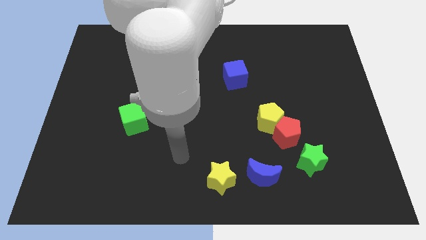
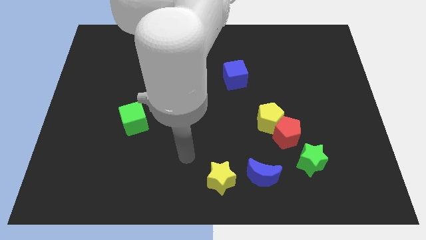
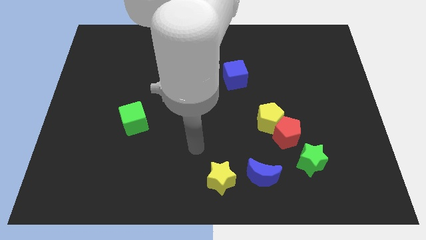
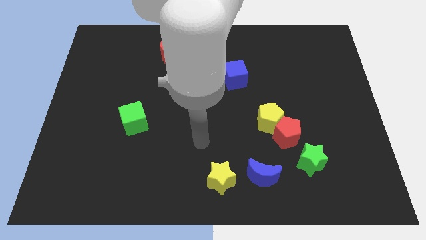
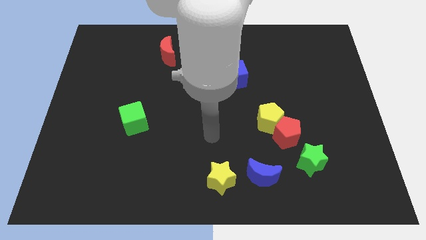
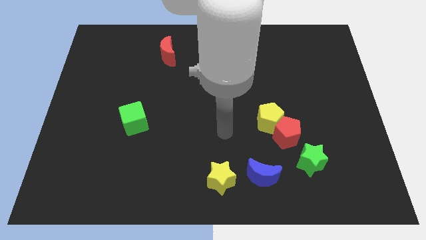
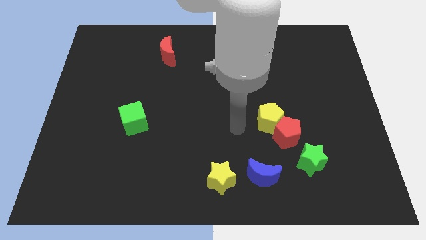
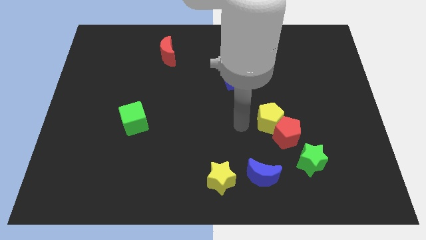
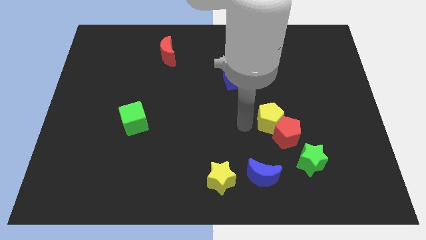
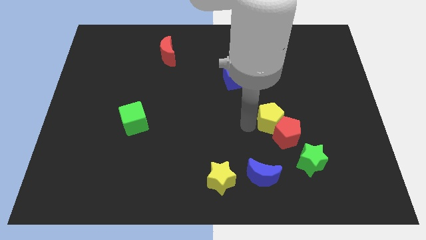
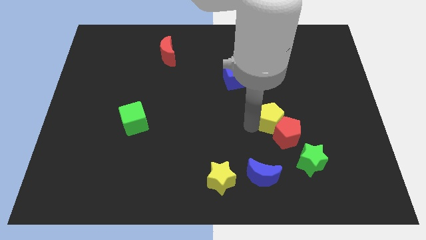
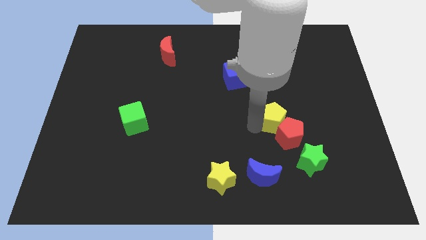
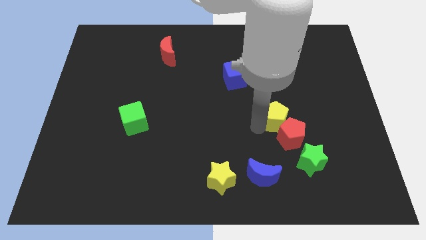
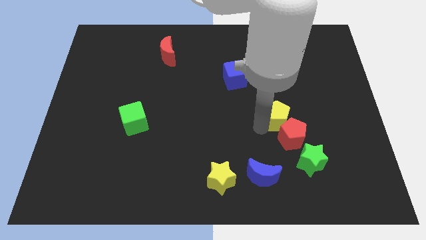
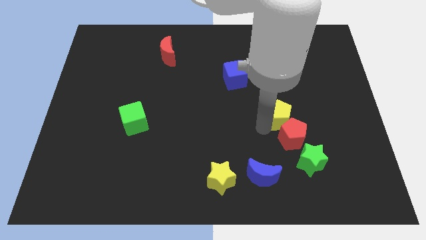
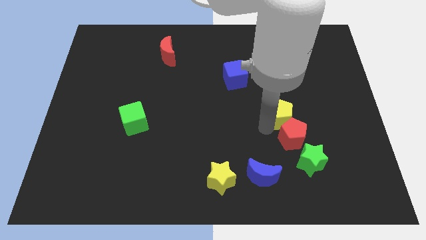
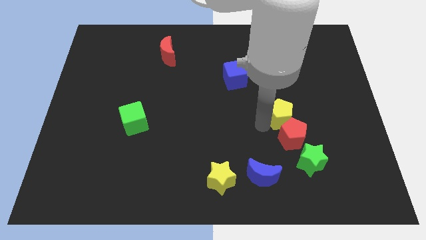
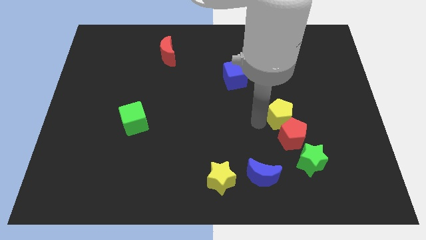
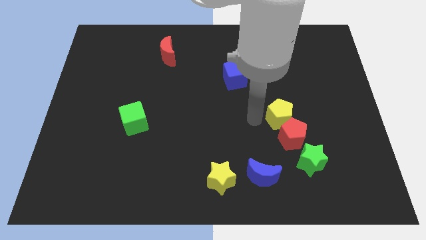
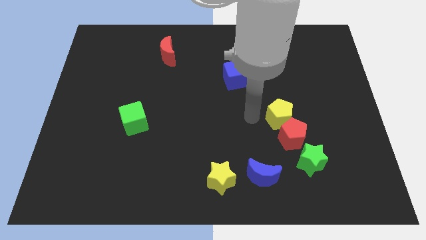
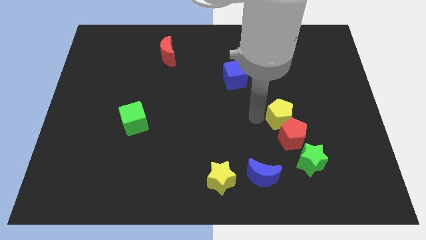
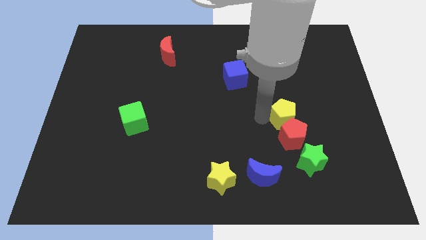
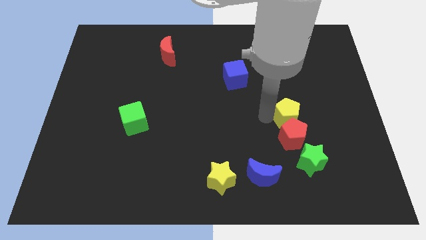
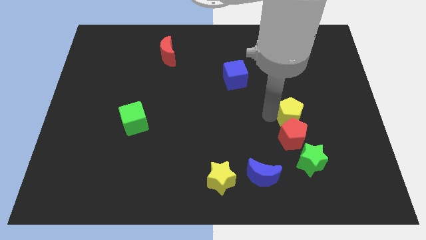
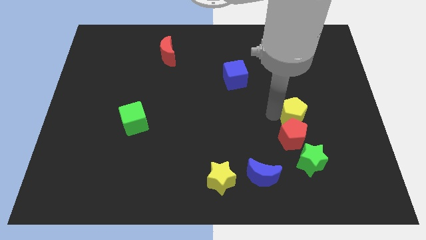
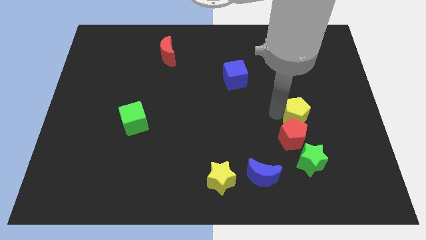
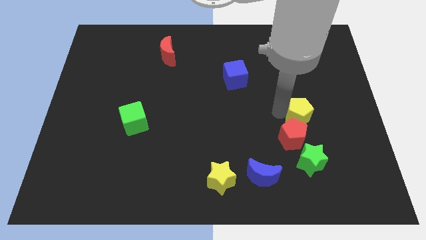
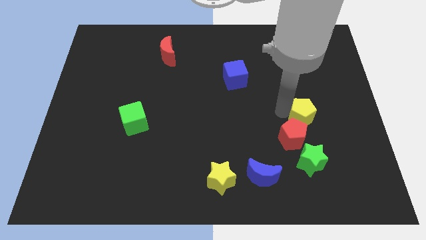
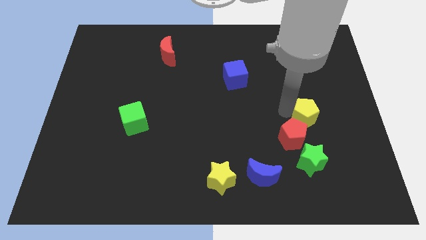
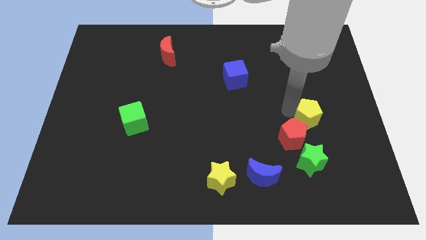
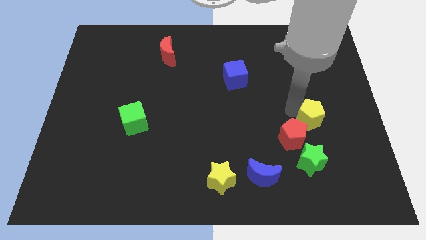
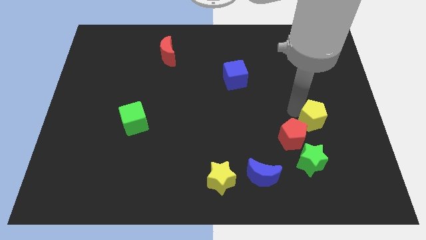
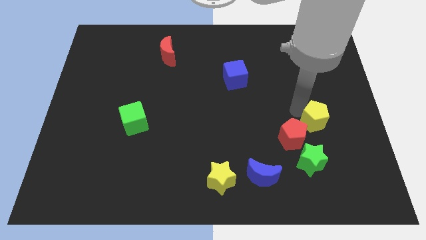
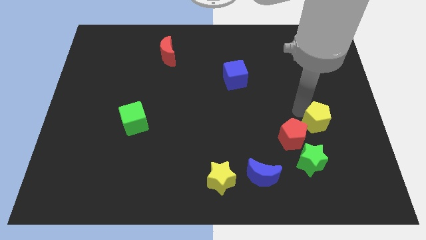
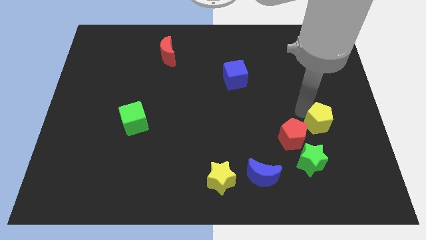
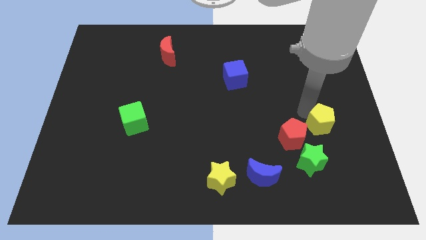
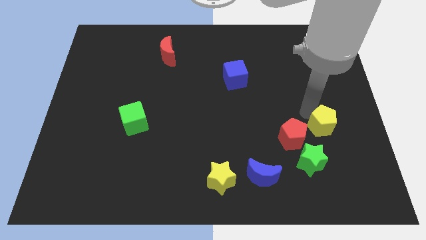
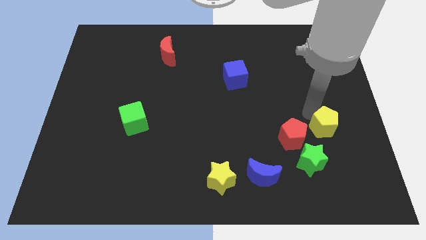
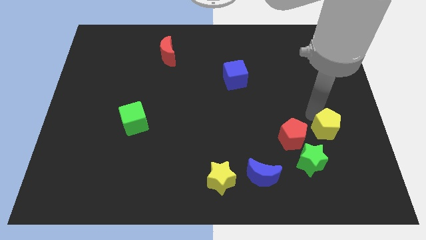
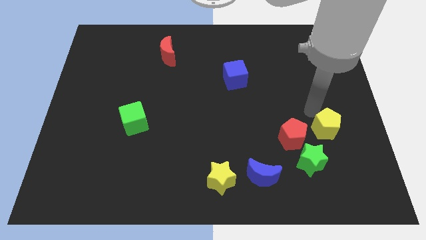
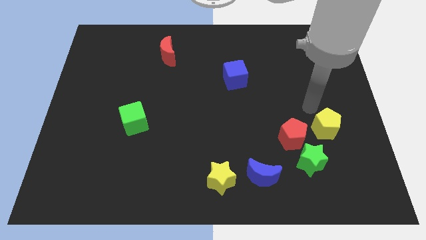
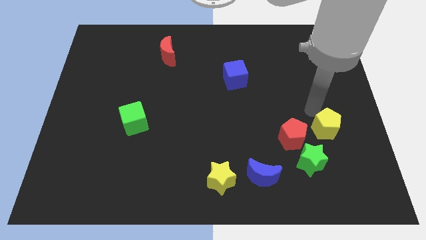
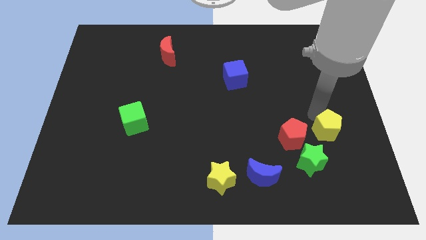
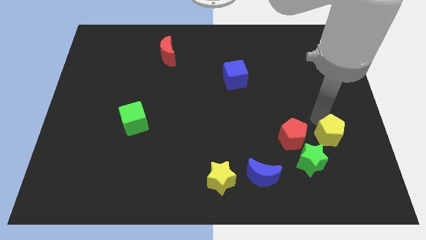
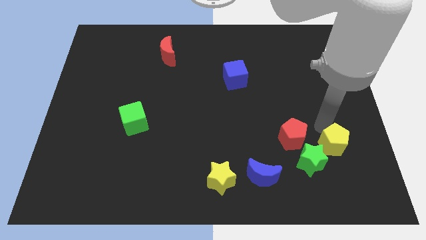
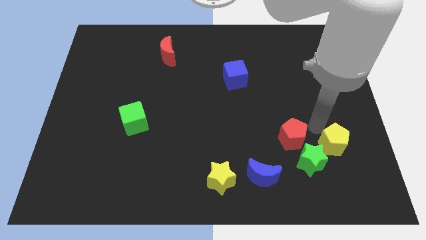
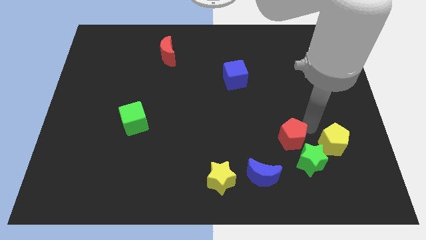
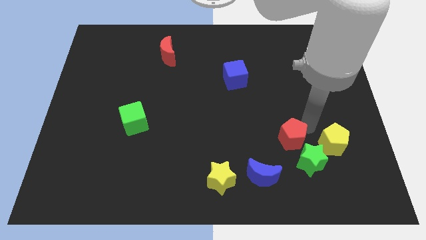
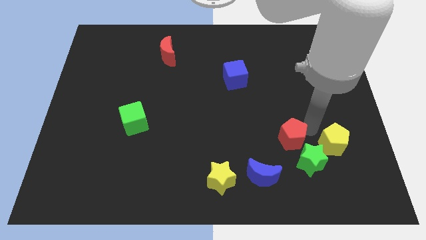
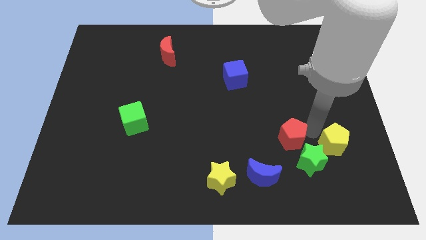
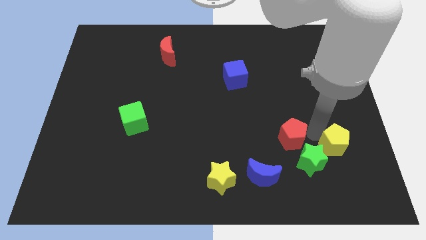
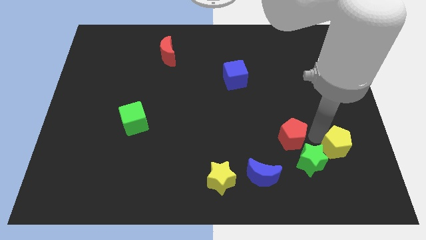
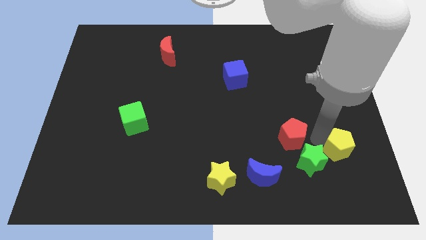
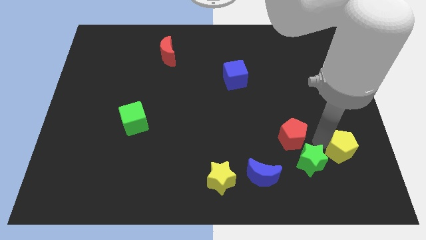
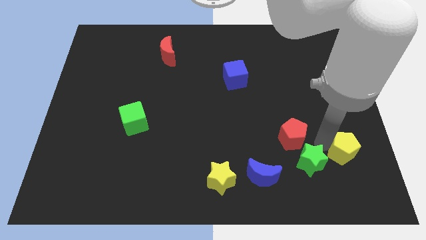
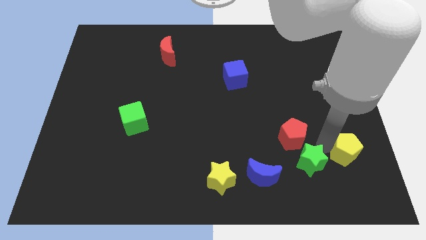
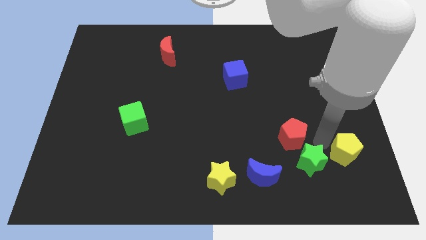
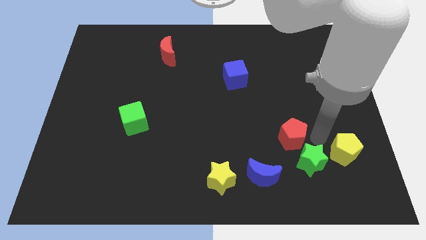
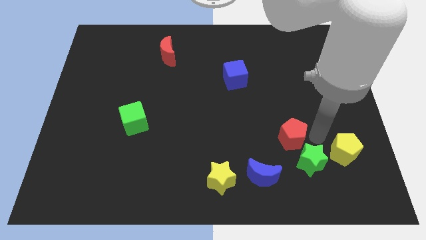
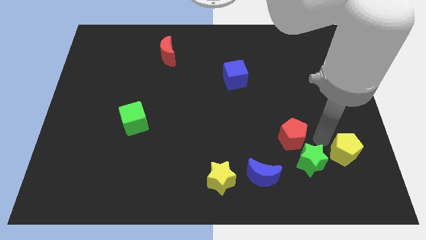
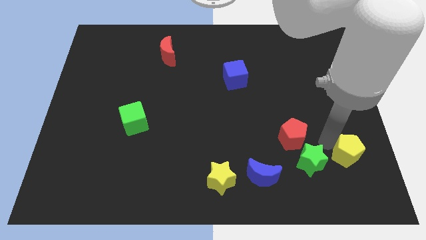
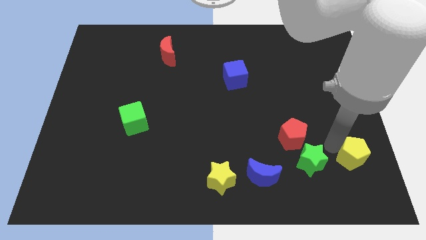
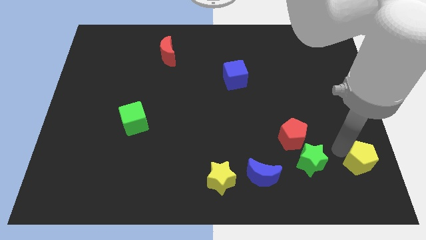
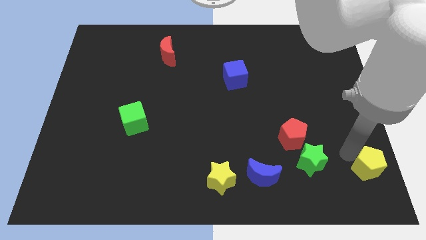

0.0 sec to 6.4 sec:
slide the yellow pentagon to the bottom right
